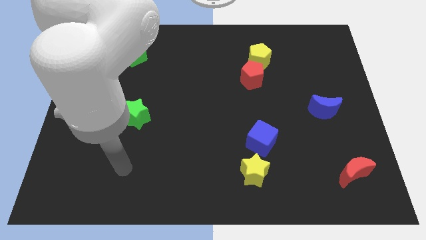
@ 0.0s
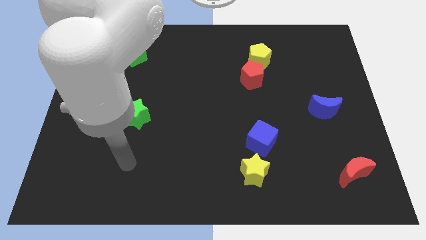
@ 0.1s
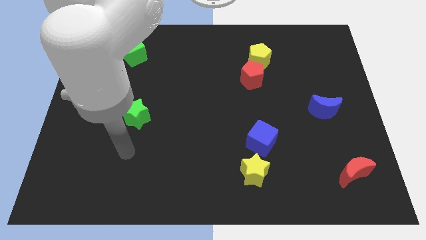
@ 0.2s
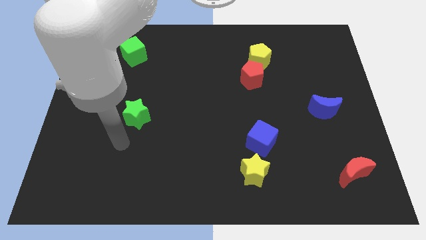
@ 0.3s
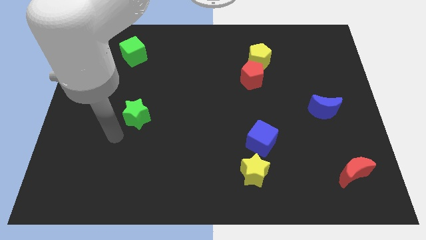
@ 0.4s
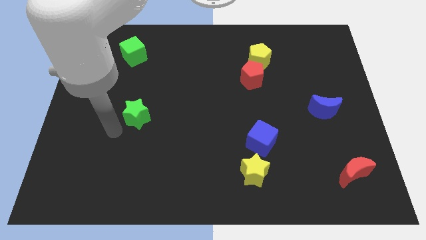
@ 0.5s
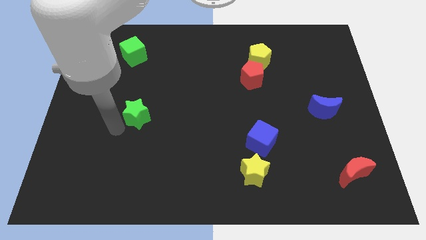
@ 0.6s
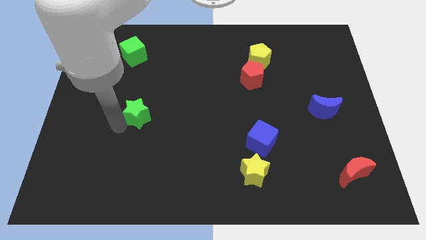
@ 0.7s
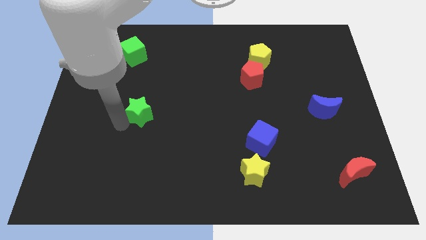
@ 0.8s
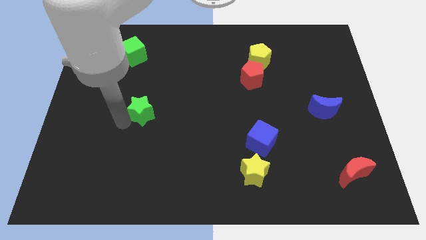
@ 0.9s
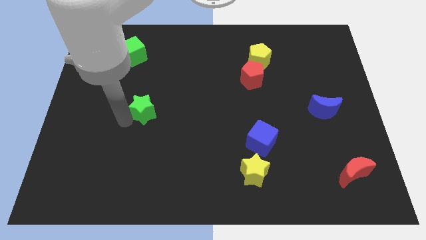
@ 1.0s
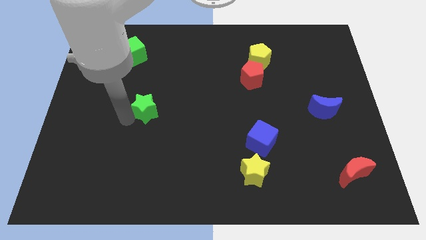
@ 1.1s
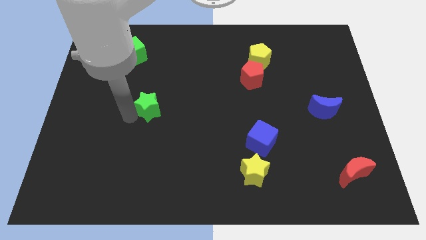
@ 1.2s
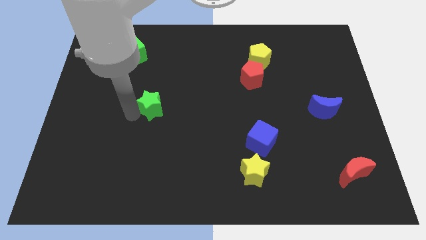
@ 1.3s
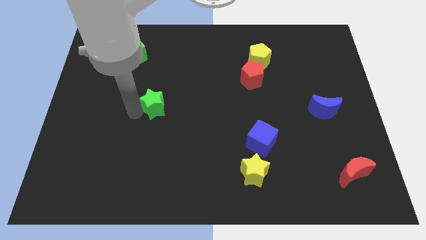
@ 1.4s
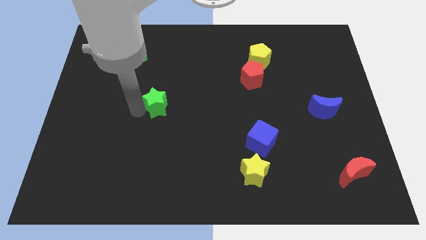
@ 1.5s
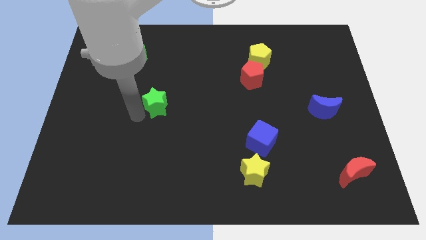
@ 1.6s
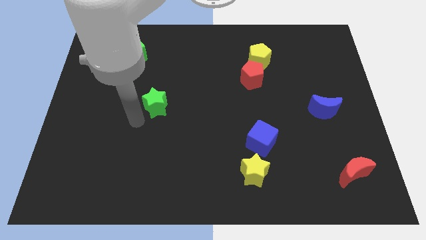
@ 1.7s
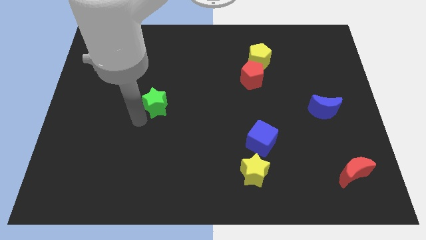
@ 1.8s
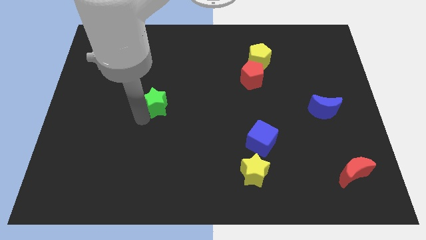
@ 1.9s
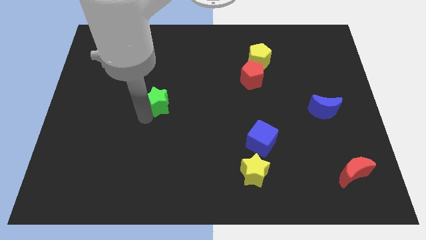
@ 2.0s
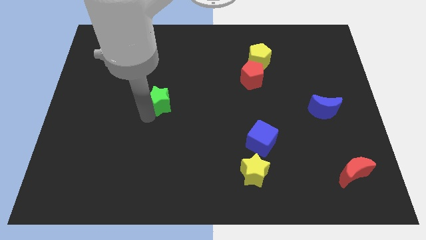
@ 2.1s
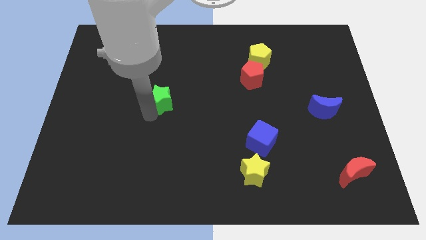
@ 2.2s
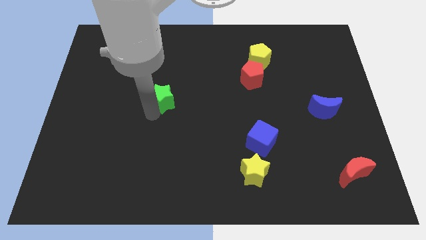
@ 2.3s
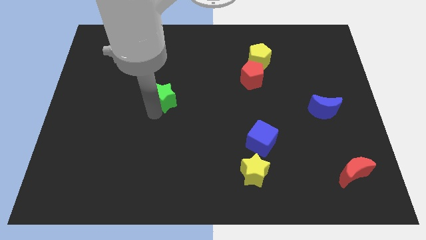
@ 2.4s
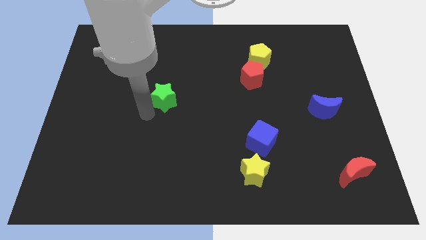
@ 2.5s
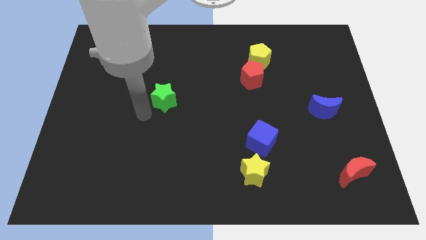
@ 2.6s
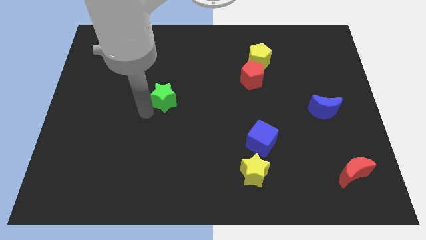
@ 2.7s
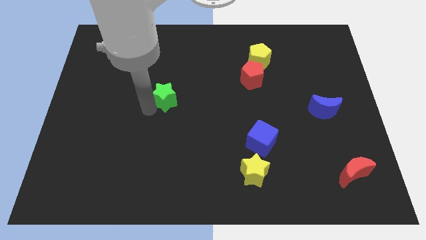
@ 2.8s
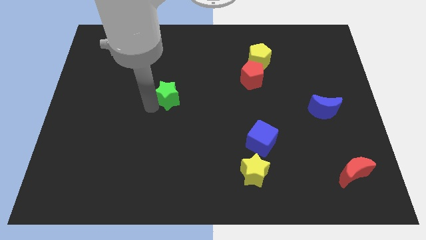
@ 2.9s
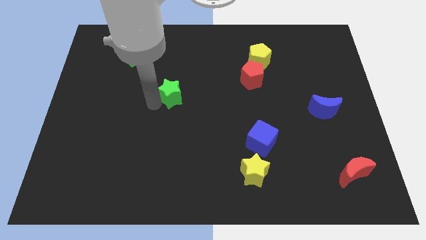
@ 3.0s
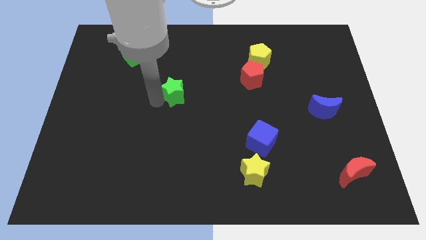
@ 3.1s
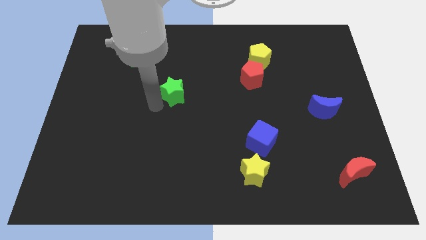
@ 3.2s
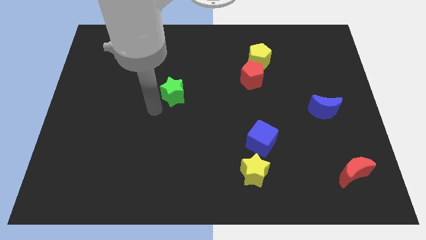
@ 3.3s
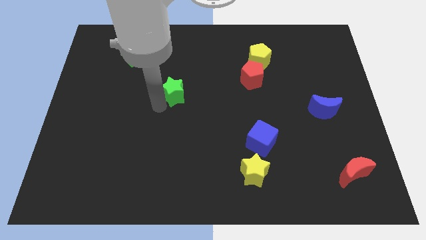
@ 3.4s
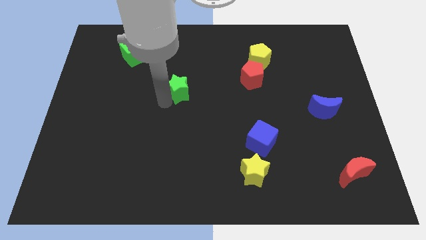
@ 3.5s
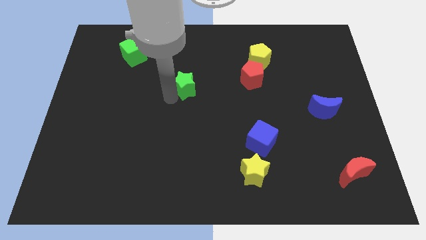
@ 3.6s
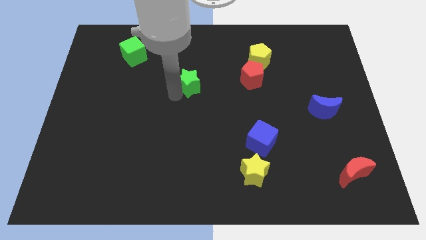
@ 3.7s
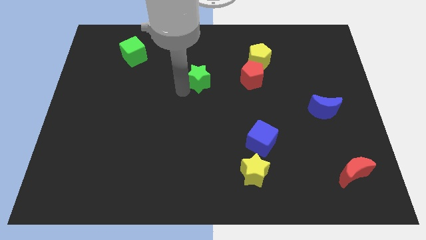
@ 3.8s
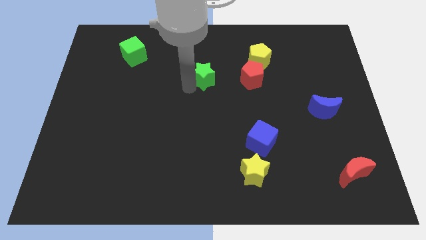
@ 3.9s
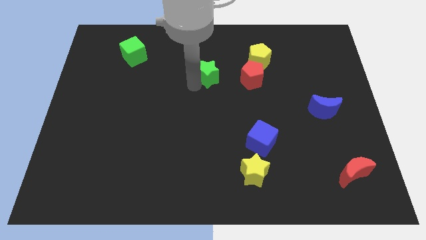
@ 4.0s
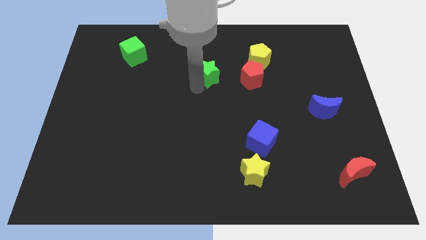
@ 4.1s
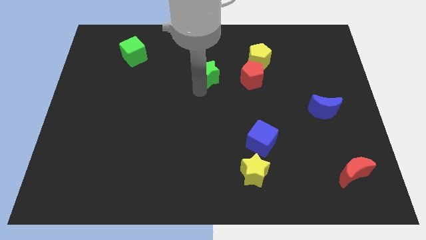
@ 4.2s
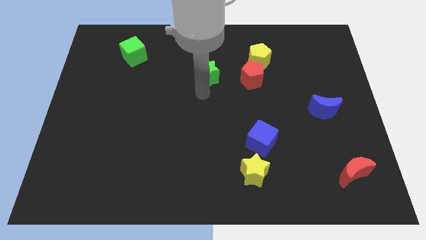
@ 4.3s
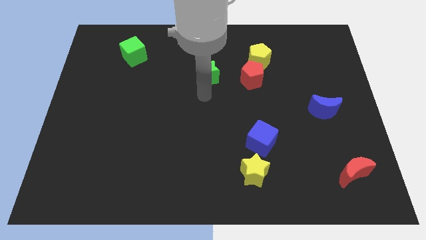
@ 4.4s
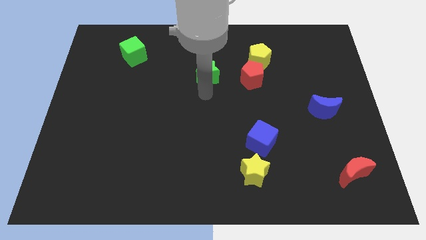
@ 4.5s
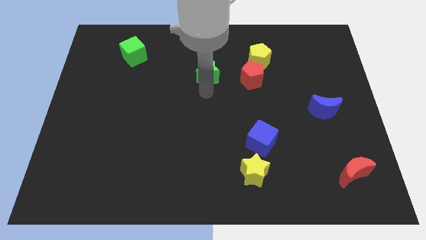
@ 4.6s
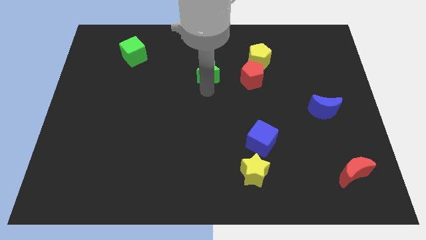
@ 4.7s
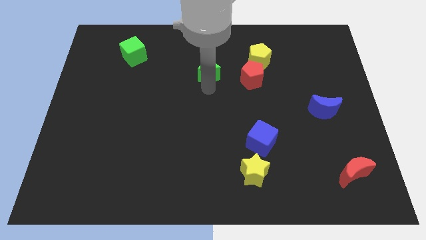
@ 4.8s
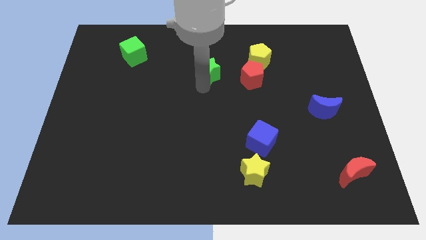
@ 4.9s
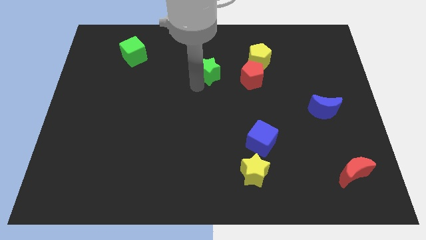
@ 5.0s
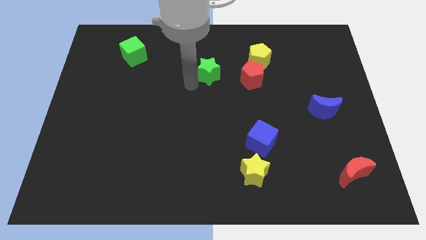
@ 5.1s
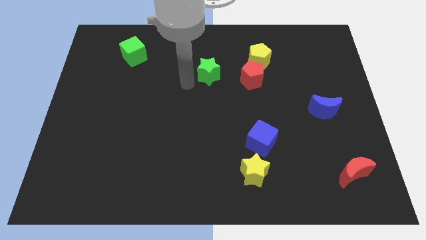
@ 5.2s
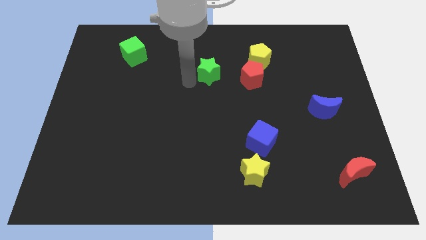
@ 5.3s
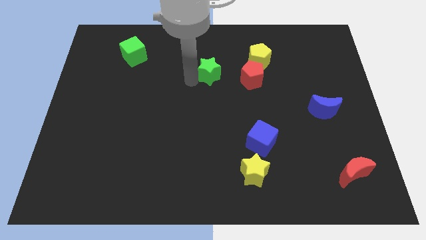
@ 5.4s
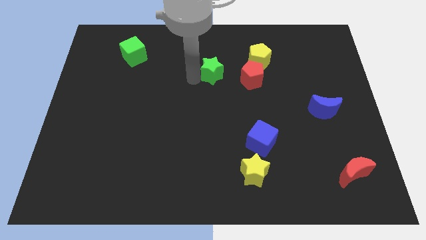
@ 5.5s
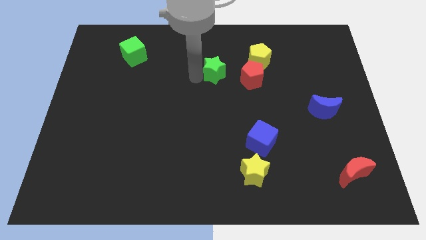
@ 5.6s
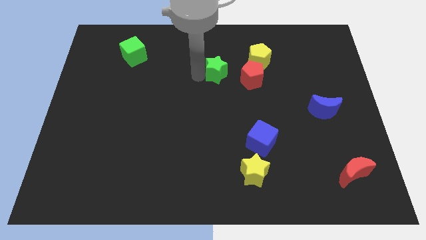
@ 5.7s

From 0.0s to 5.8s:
put the green star to the top left of the red pentagon

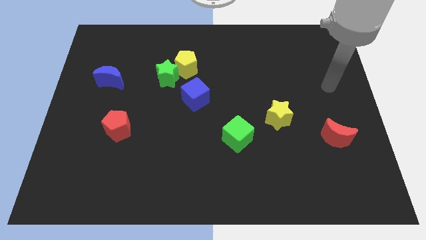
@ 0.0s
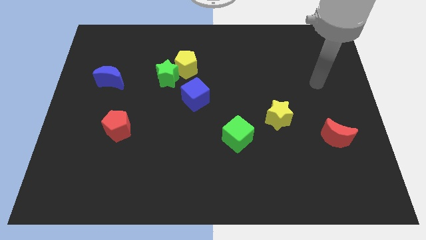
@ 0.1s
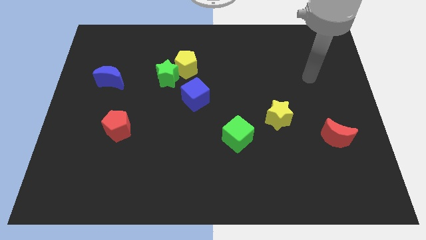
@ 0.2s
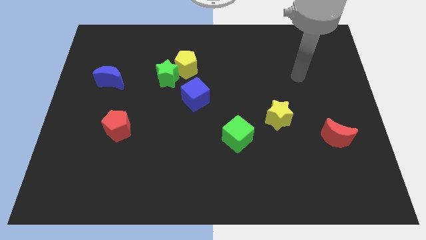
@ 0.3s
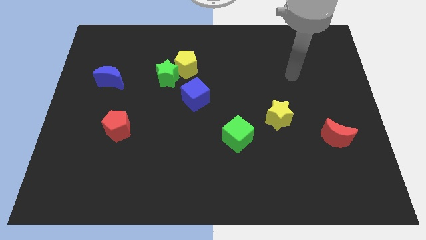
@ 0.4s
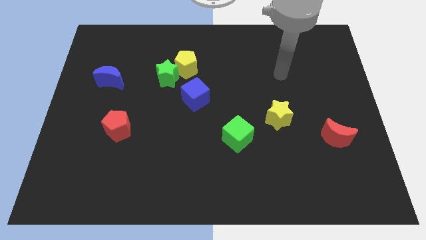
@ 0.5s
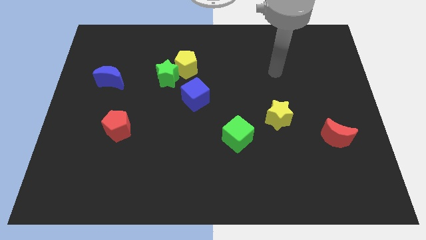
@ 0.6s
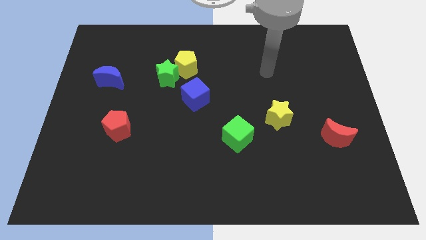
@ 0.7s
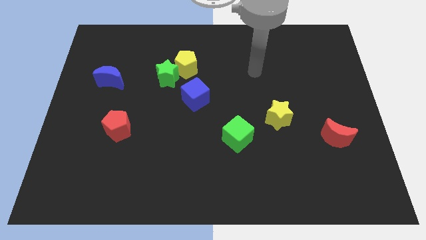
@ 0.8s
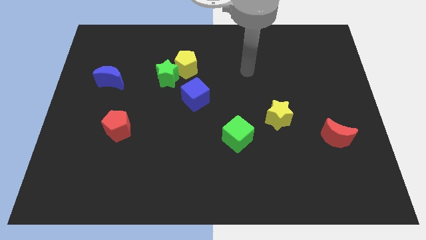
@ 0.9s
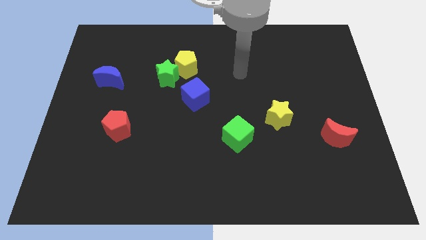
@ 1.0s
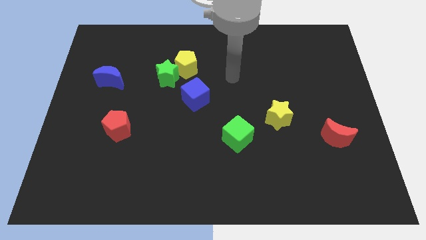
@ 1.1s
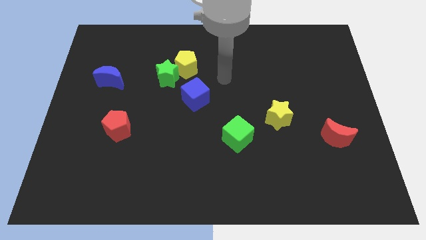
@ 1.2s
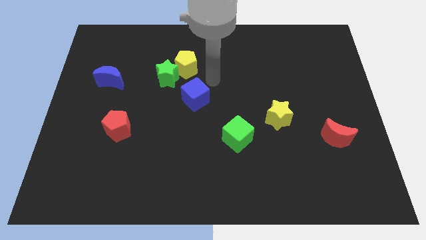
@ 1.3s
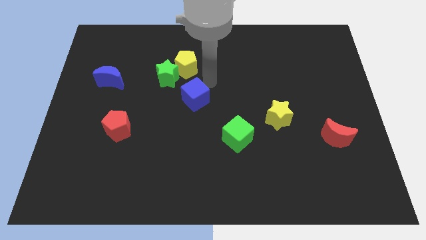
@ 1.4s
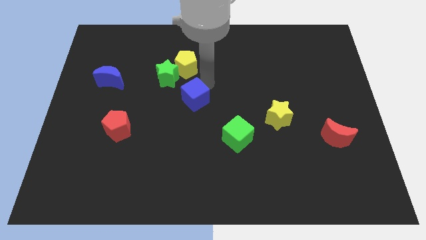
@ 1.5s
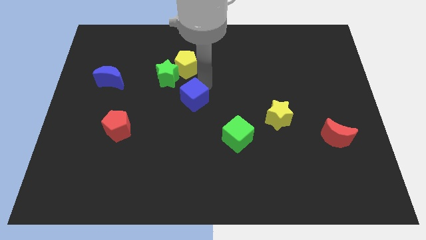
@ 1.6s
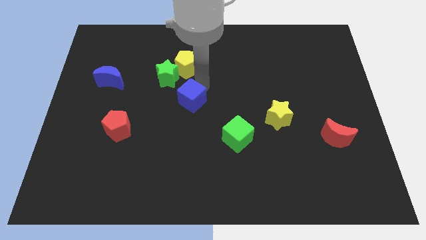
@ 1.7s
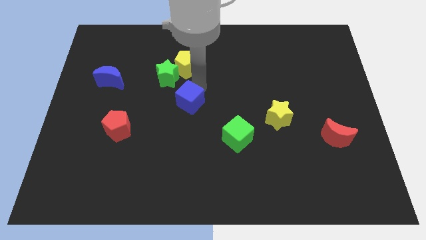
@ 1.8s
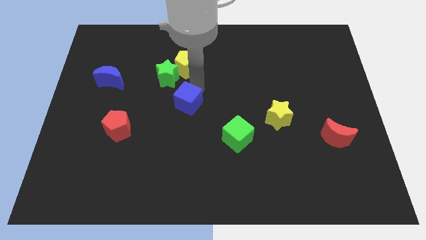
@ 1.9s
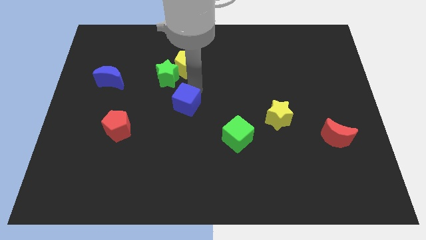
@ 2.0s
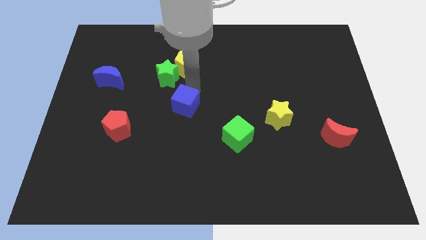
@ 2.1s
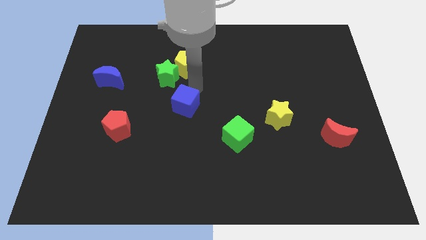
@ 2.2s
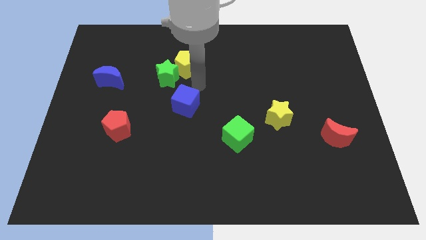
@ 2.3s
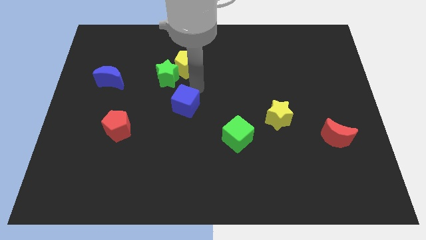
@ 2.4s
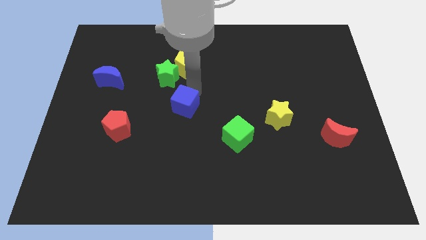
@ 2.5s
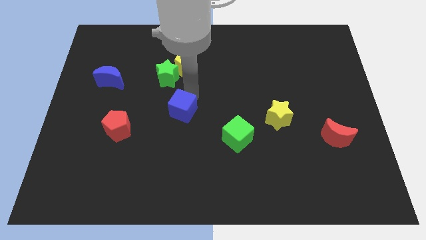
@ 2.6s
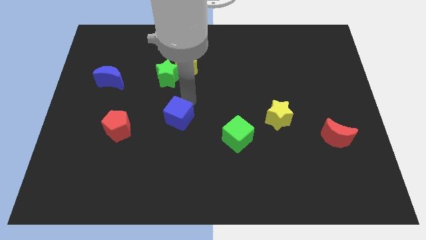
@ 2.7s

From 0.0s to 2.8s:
move the blue cube to the right side of the red pentagon
